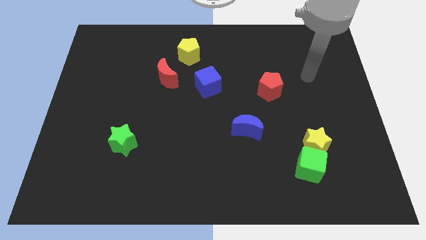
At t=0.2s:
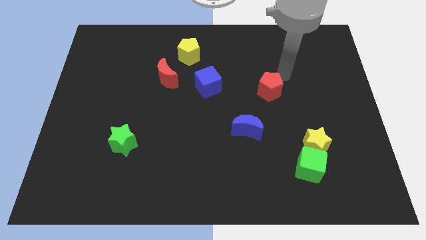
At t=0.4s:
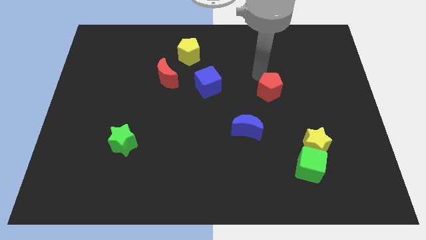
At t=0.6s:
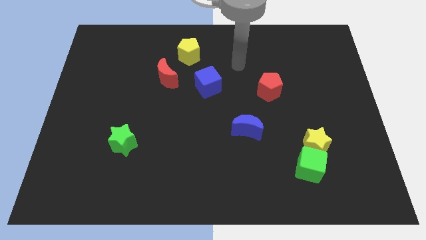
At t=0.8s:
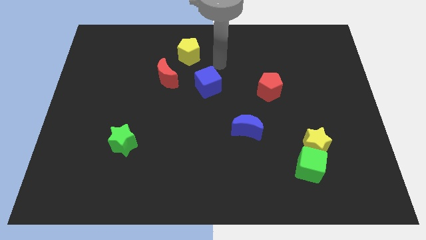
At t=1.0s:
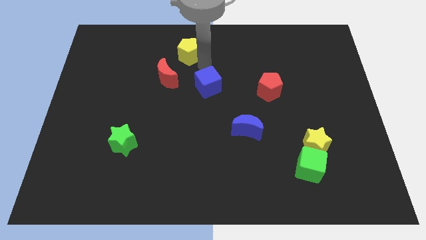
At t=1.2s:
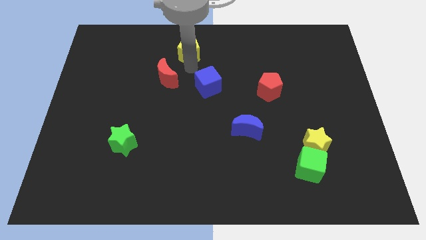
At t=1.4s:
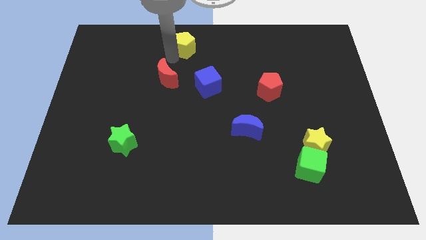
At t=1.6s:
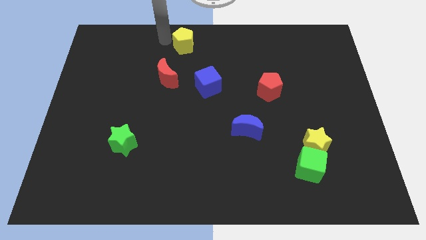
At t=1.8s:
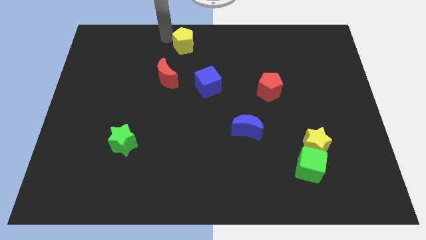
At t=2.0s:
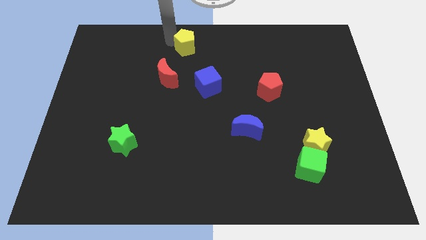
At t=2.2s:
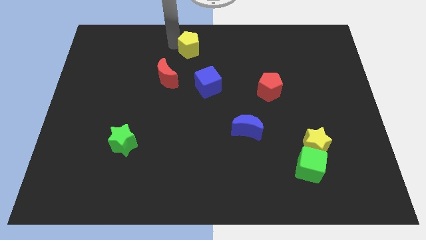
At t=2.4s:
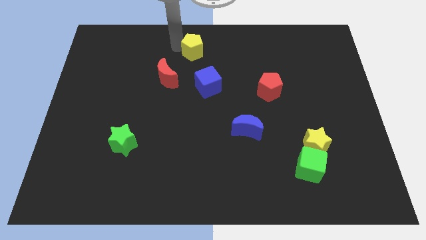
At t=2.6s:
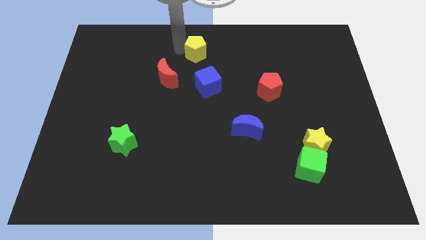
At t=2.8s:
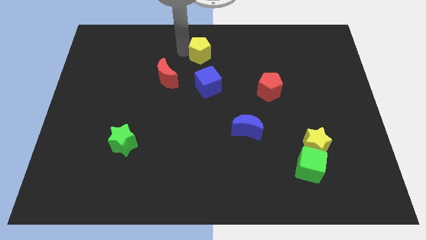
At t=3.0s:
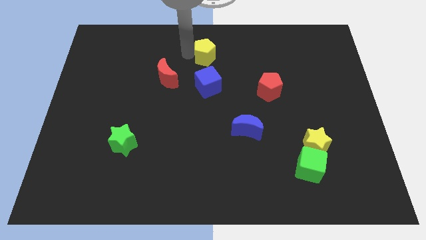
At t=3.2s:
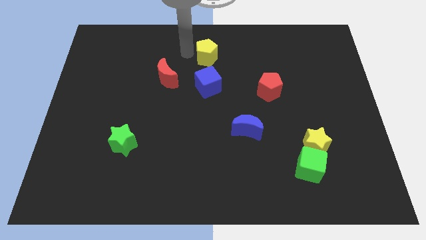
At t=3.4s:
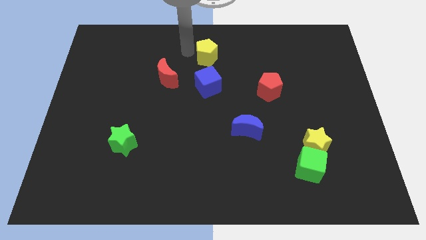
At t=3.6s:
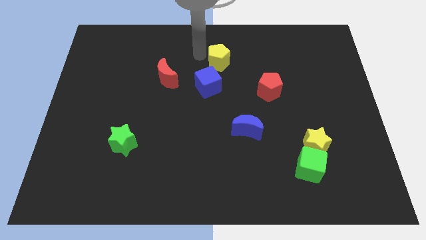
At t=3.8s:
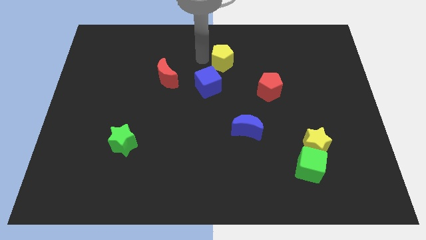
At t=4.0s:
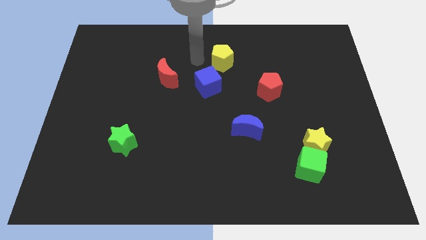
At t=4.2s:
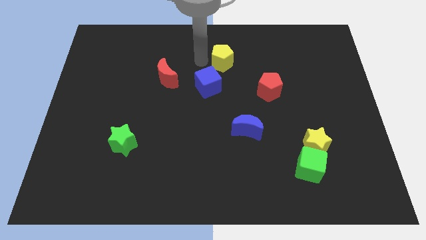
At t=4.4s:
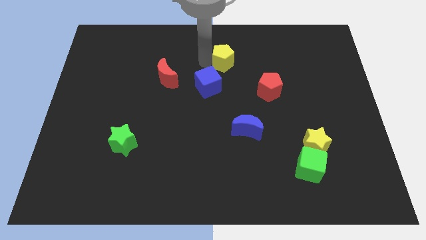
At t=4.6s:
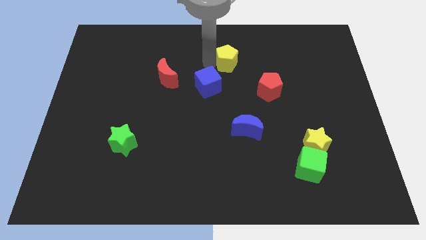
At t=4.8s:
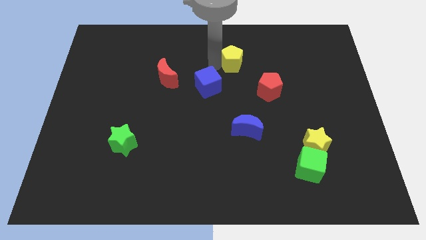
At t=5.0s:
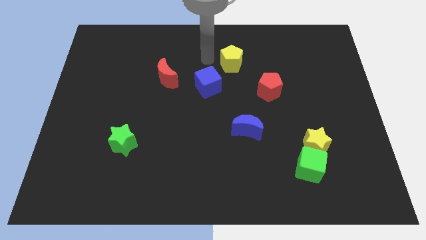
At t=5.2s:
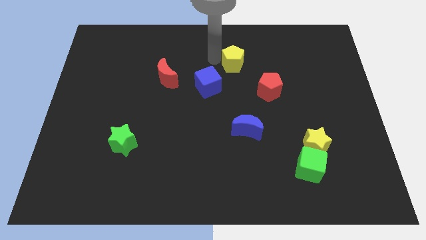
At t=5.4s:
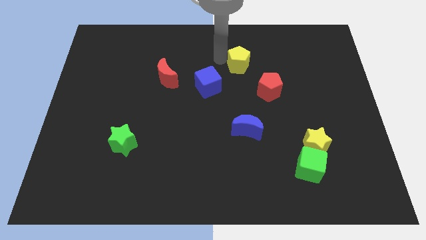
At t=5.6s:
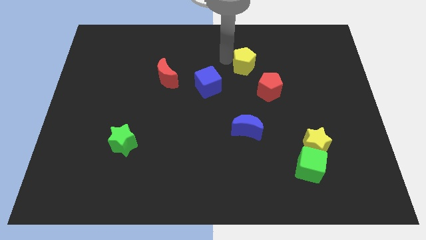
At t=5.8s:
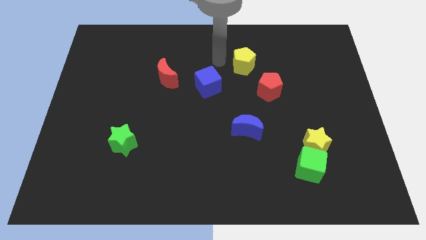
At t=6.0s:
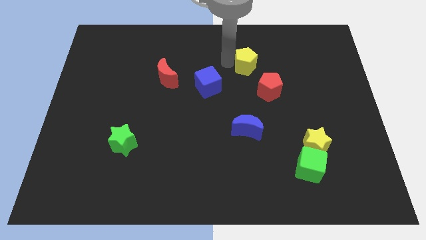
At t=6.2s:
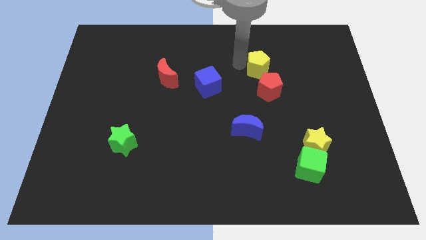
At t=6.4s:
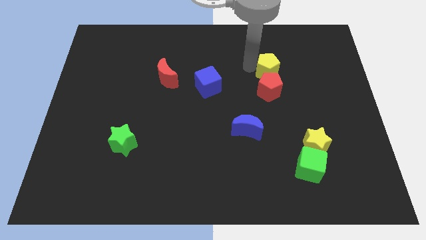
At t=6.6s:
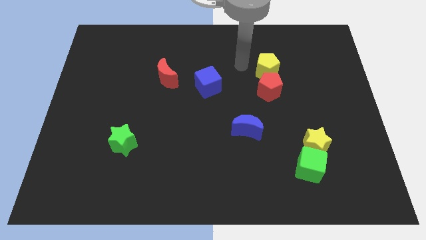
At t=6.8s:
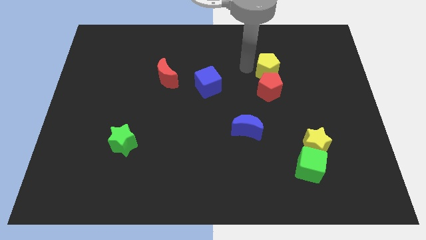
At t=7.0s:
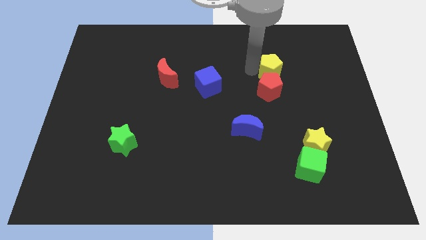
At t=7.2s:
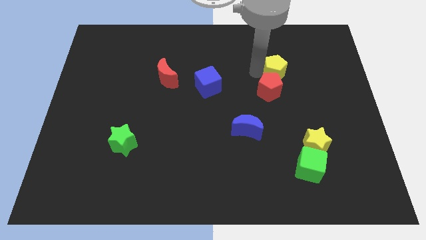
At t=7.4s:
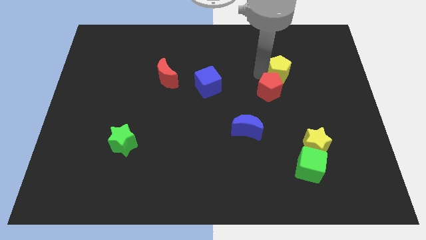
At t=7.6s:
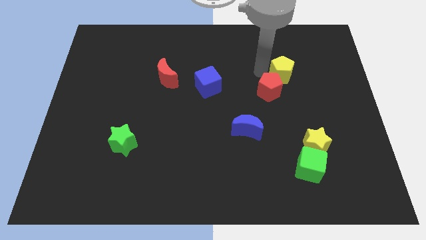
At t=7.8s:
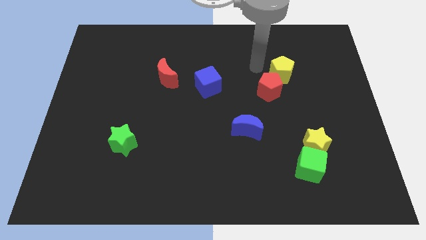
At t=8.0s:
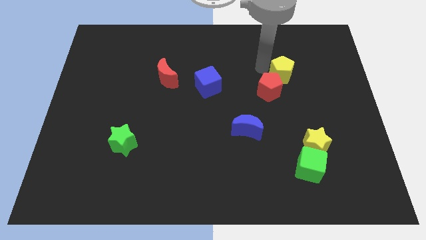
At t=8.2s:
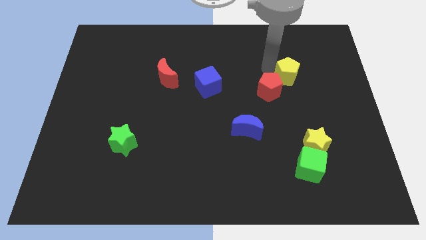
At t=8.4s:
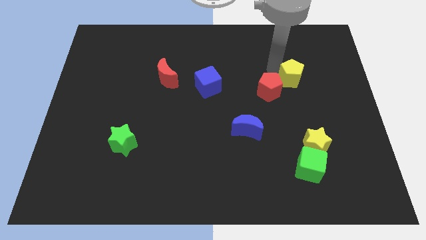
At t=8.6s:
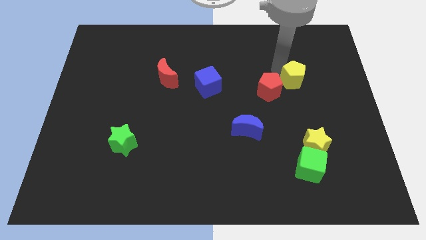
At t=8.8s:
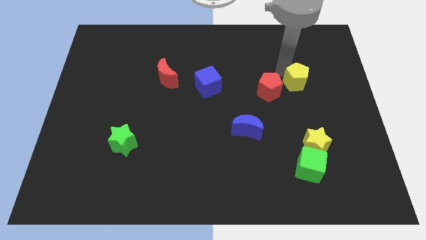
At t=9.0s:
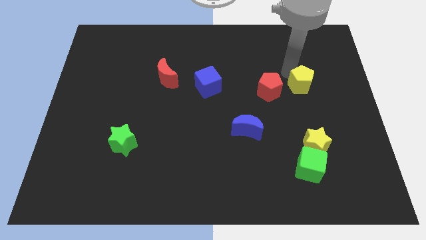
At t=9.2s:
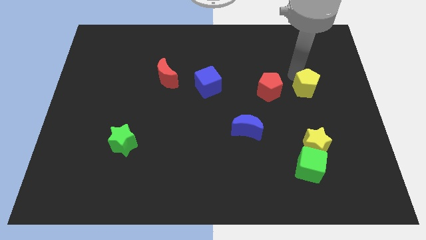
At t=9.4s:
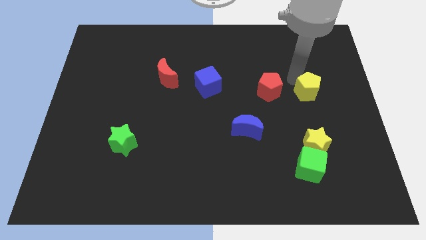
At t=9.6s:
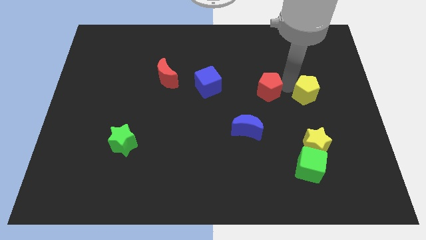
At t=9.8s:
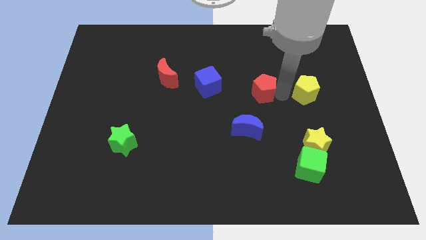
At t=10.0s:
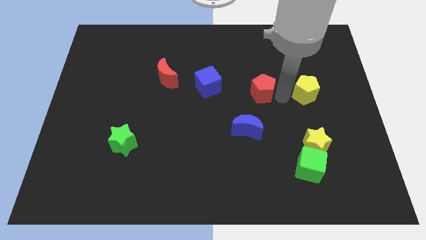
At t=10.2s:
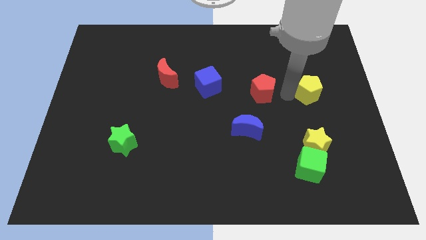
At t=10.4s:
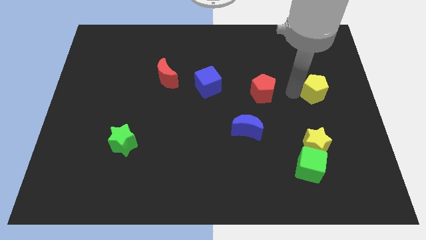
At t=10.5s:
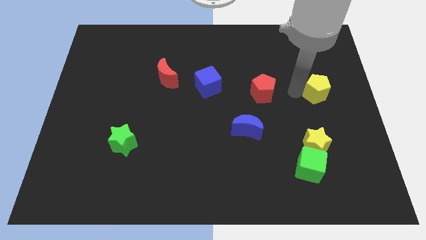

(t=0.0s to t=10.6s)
move the yellow pentagon to the center right

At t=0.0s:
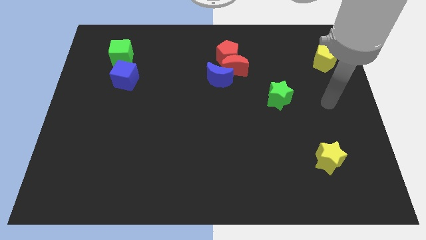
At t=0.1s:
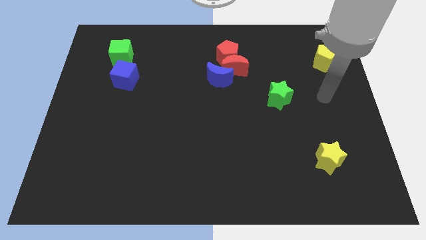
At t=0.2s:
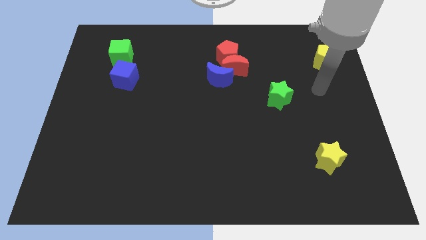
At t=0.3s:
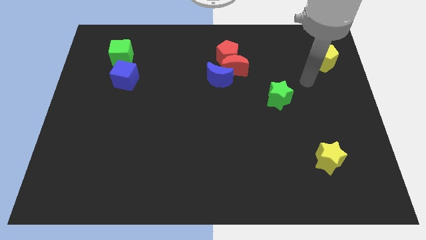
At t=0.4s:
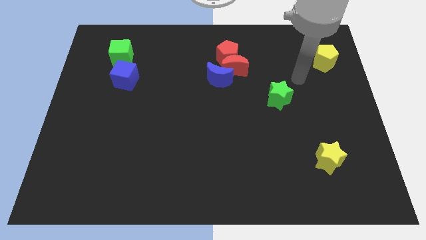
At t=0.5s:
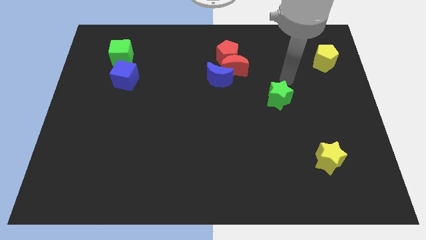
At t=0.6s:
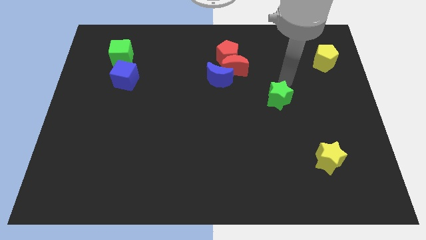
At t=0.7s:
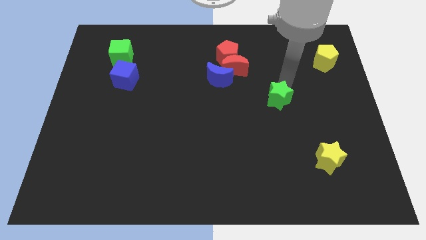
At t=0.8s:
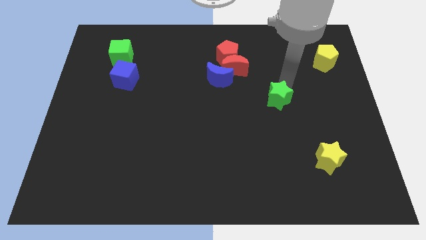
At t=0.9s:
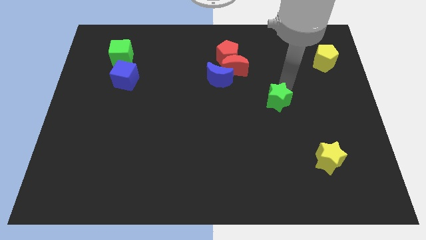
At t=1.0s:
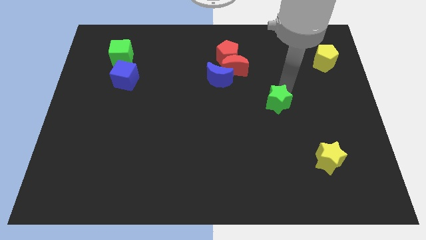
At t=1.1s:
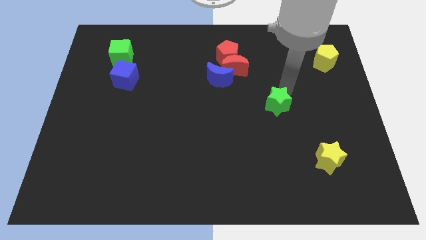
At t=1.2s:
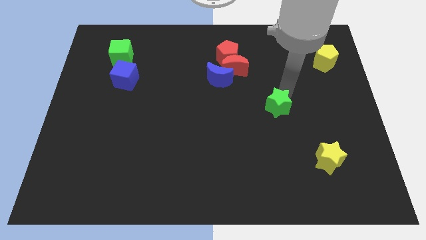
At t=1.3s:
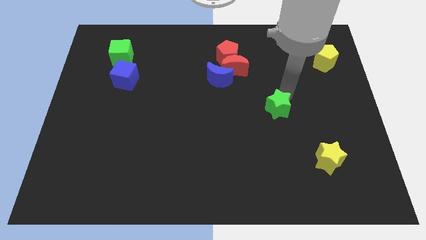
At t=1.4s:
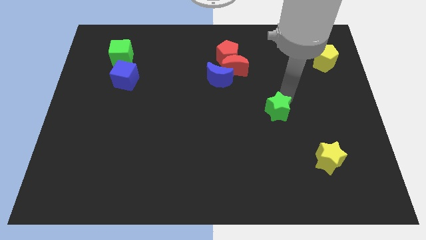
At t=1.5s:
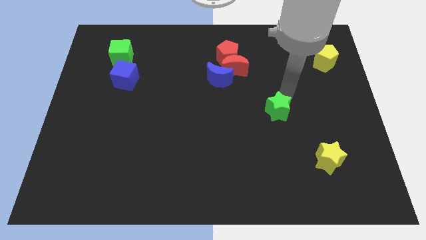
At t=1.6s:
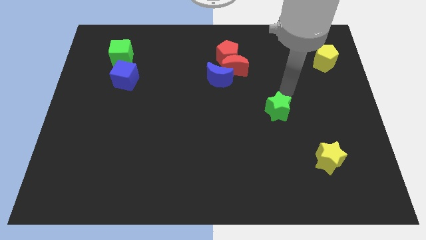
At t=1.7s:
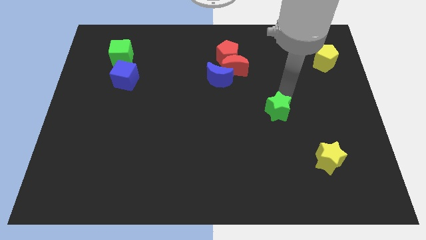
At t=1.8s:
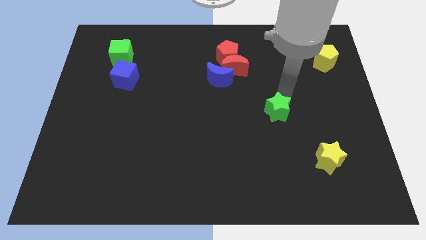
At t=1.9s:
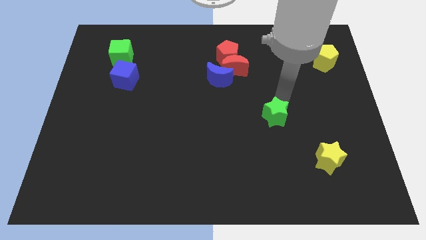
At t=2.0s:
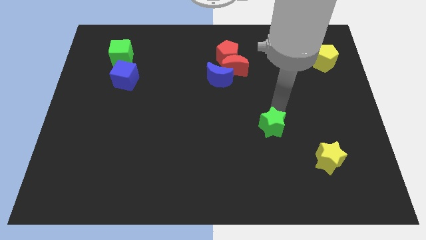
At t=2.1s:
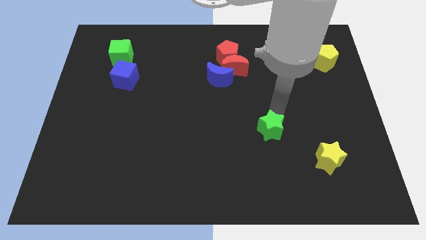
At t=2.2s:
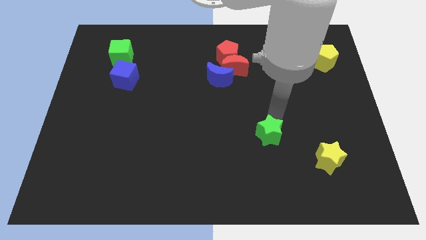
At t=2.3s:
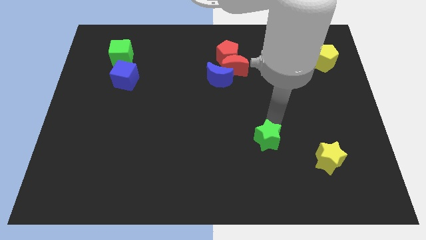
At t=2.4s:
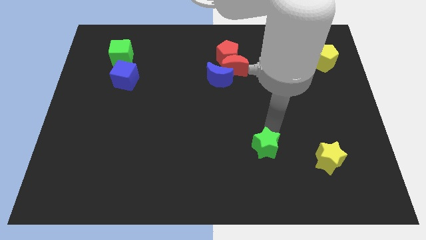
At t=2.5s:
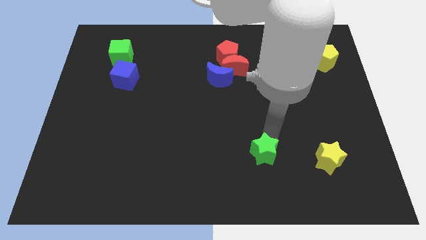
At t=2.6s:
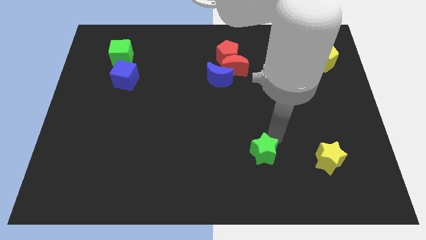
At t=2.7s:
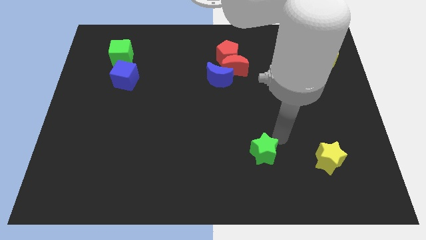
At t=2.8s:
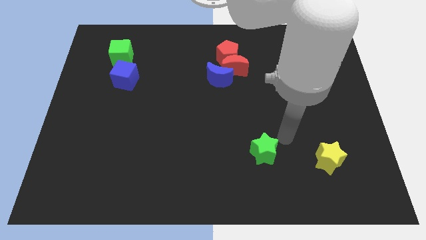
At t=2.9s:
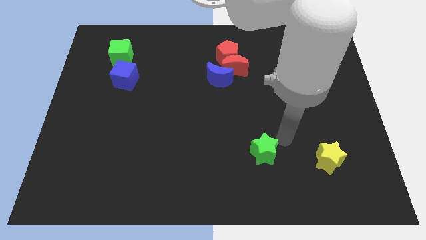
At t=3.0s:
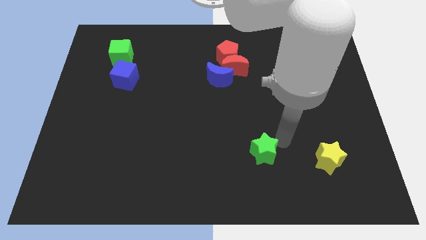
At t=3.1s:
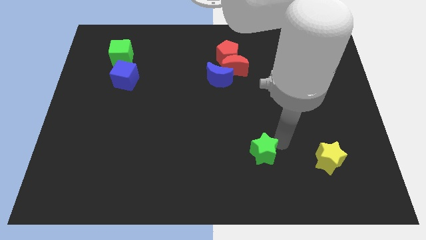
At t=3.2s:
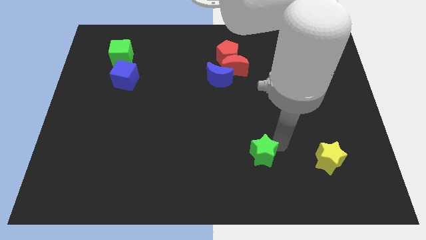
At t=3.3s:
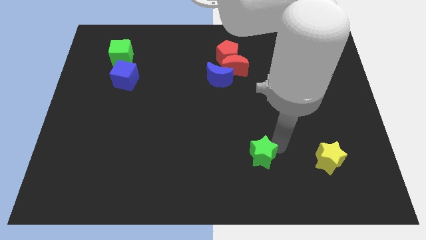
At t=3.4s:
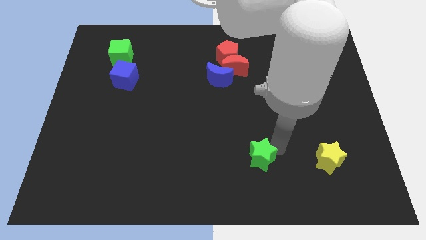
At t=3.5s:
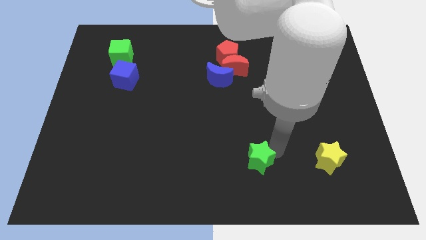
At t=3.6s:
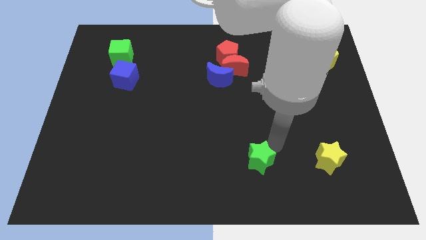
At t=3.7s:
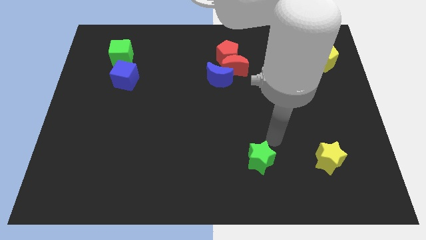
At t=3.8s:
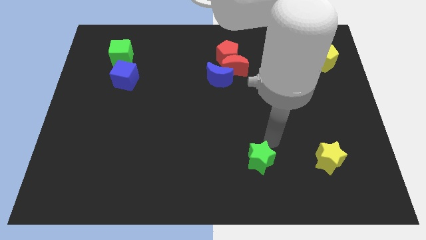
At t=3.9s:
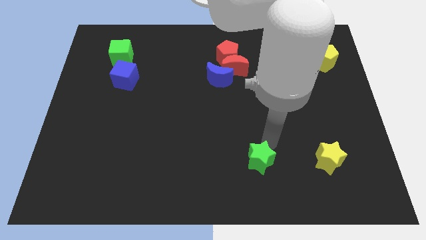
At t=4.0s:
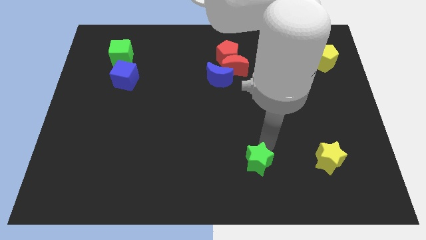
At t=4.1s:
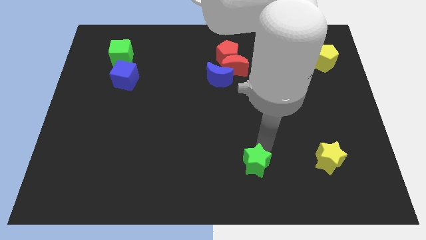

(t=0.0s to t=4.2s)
slide the green star to the bottom
